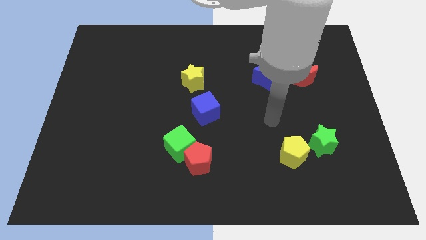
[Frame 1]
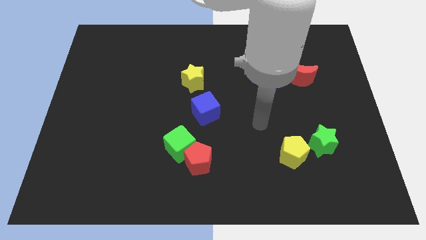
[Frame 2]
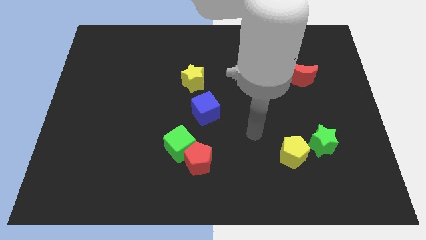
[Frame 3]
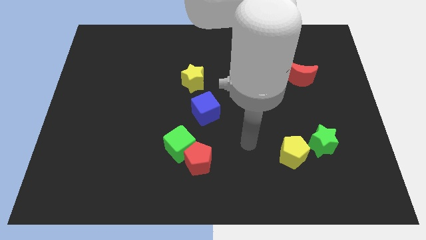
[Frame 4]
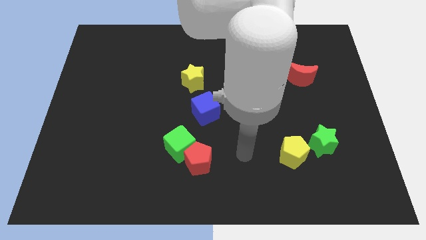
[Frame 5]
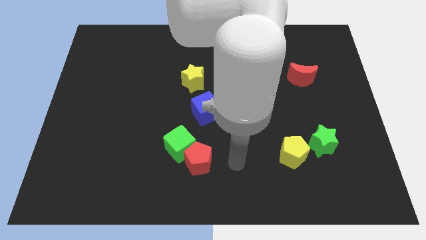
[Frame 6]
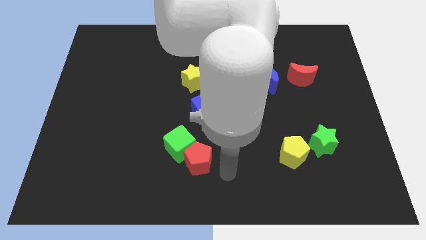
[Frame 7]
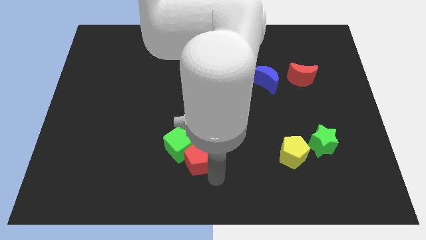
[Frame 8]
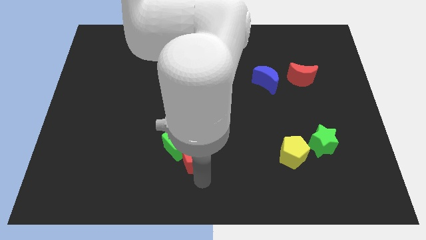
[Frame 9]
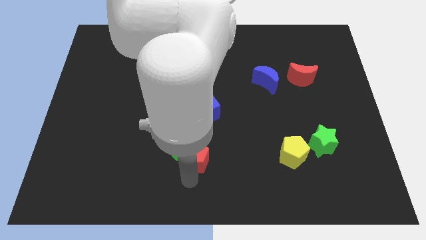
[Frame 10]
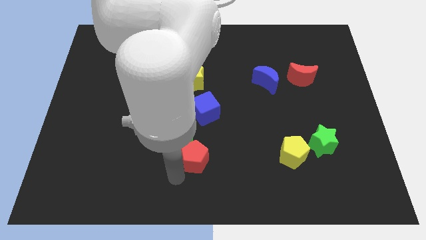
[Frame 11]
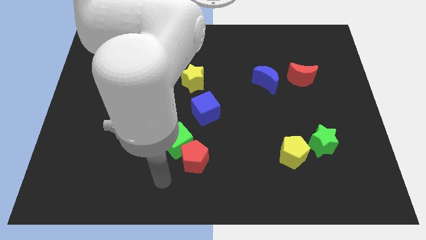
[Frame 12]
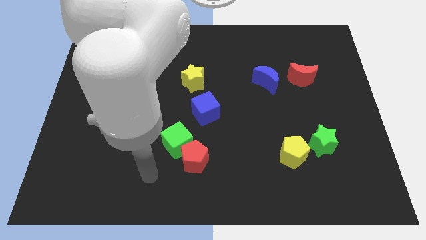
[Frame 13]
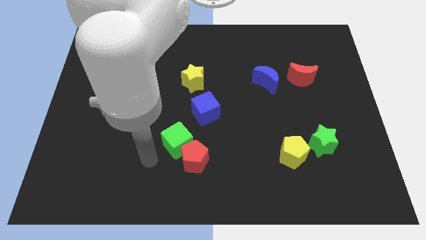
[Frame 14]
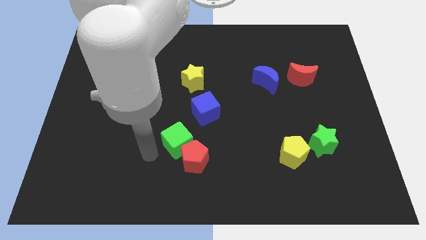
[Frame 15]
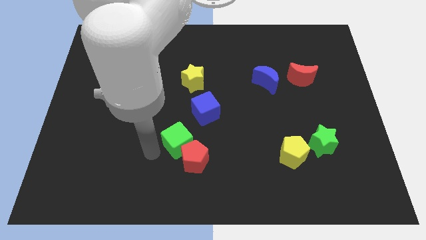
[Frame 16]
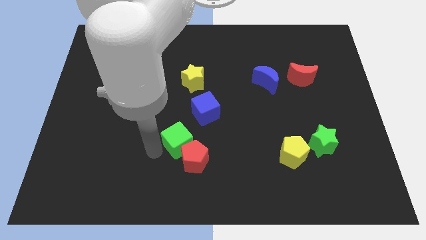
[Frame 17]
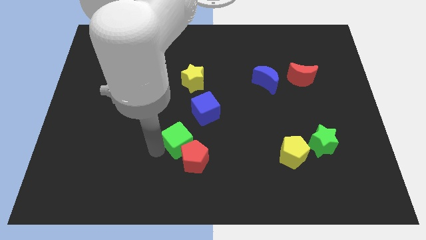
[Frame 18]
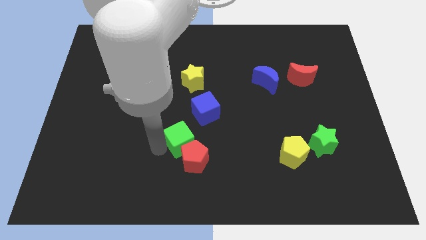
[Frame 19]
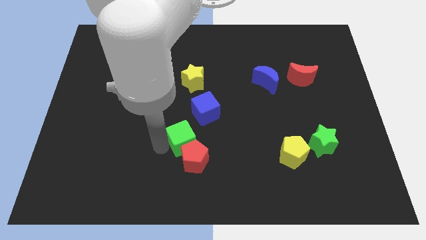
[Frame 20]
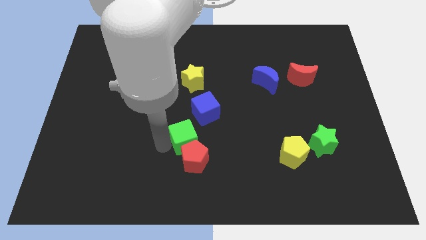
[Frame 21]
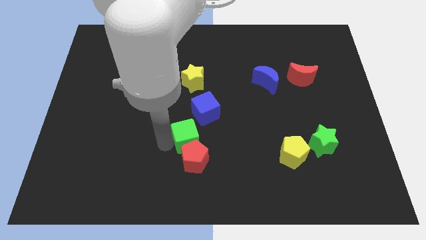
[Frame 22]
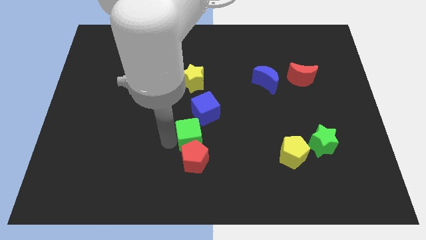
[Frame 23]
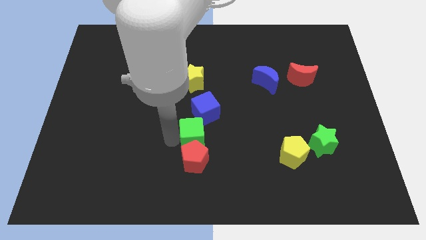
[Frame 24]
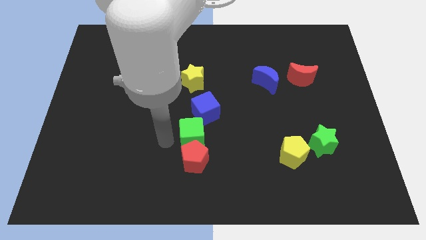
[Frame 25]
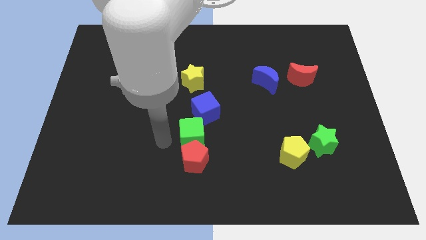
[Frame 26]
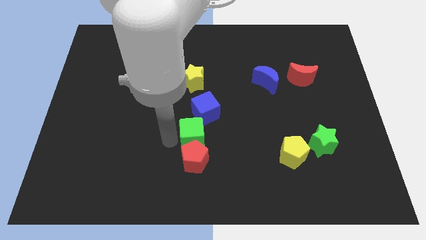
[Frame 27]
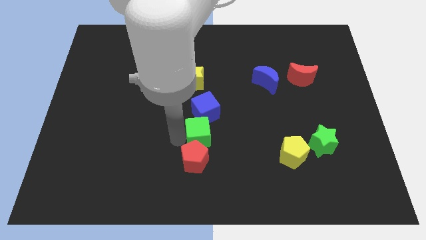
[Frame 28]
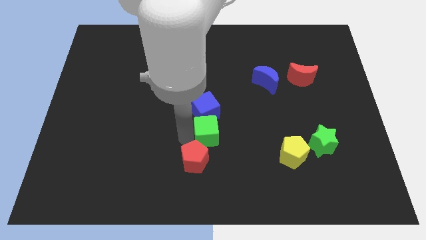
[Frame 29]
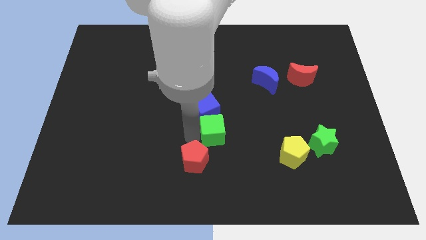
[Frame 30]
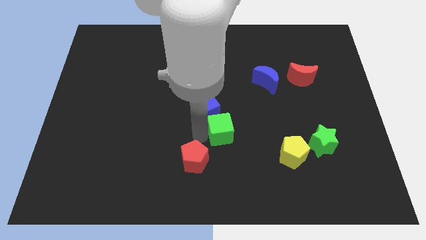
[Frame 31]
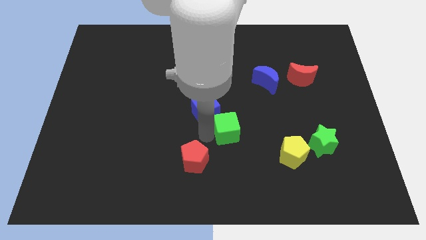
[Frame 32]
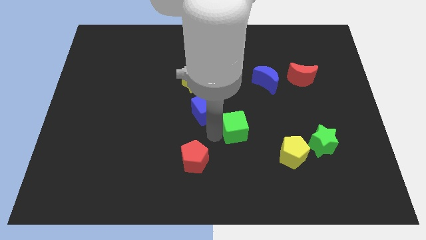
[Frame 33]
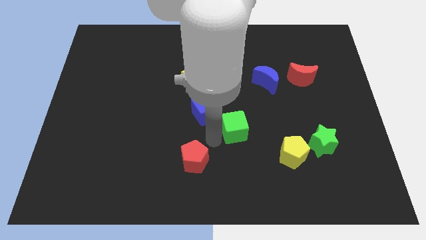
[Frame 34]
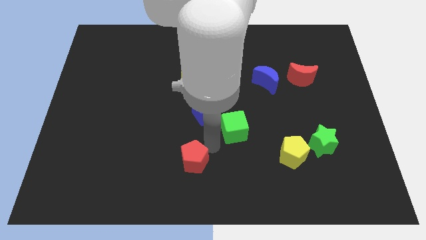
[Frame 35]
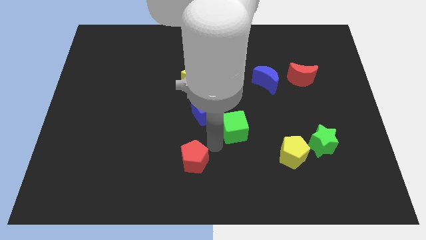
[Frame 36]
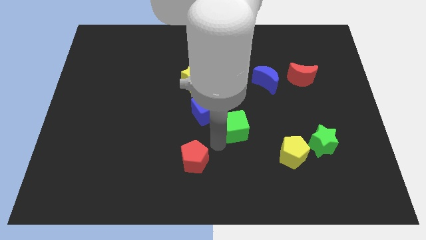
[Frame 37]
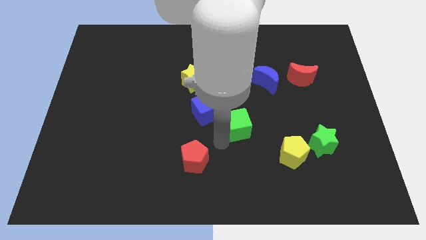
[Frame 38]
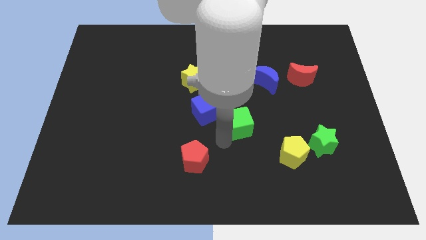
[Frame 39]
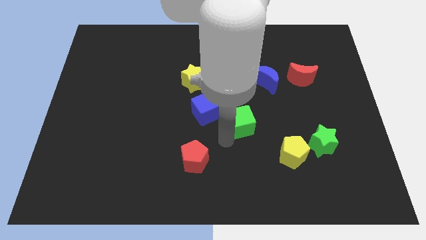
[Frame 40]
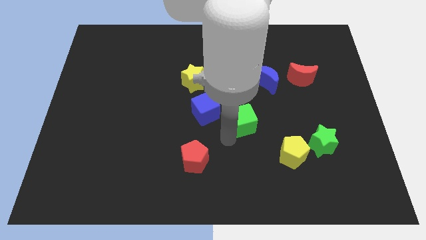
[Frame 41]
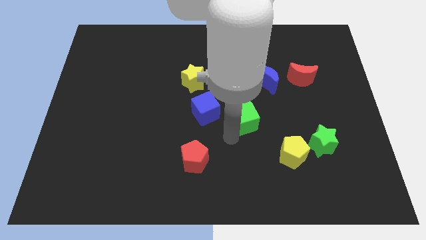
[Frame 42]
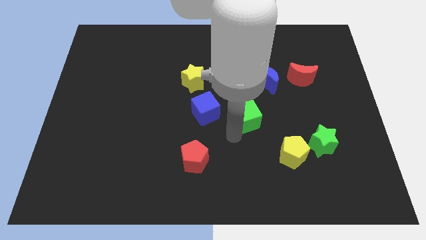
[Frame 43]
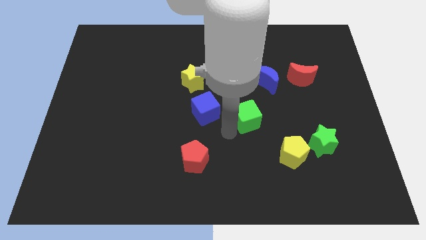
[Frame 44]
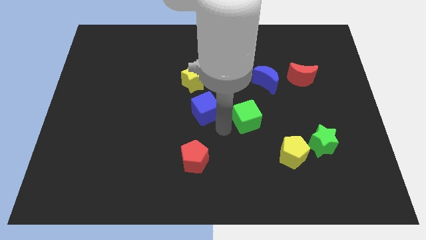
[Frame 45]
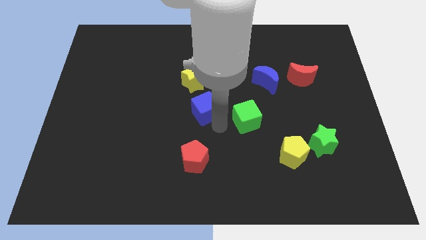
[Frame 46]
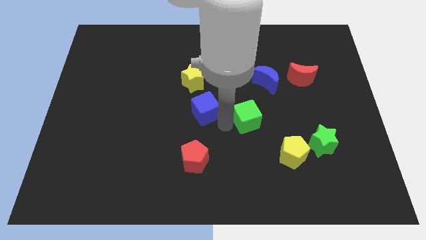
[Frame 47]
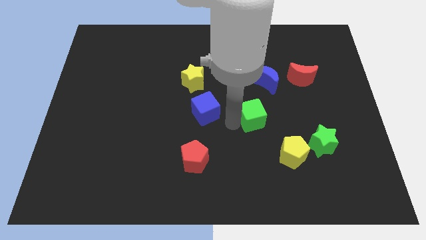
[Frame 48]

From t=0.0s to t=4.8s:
push the green cube below the blue moon

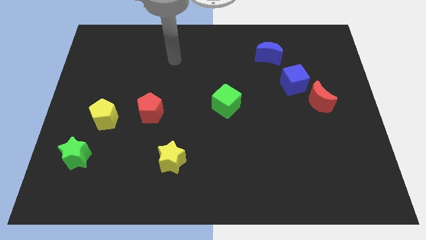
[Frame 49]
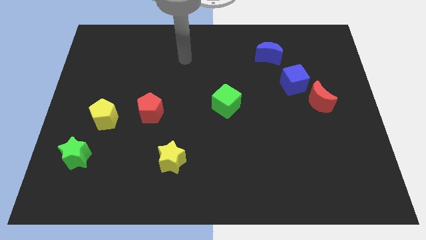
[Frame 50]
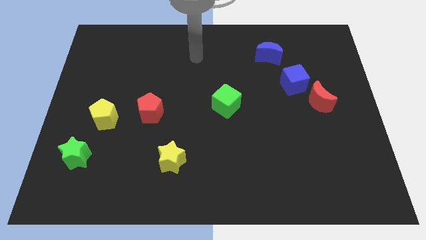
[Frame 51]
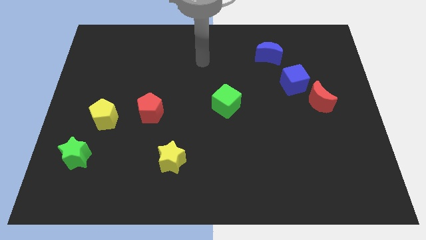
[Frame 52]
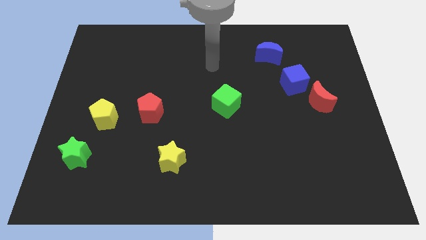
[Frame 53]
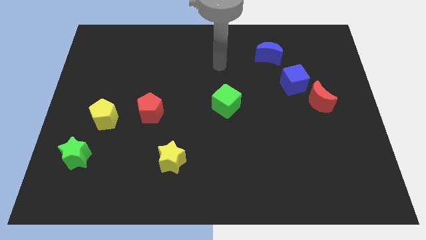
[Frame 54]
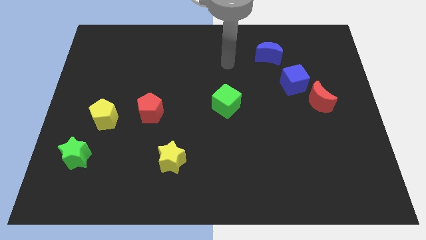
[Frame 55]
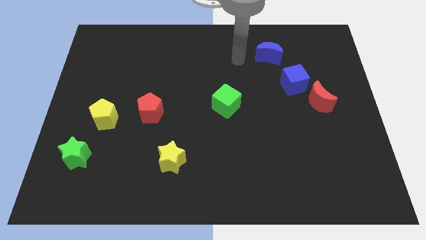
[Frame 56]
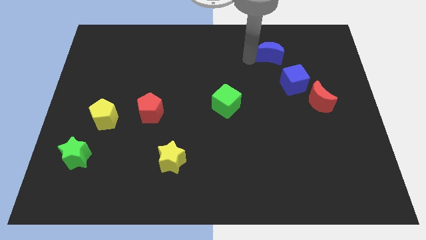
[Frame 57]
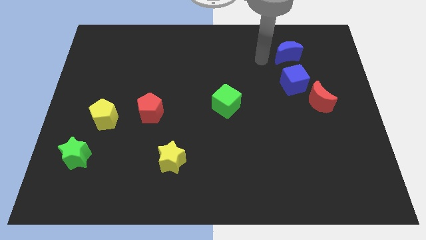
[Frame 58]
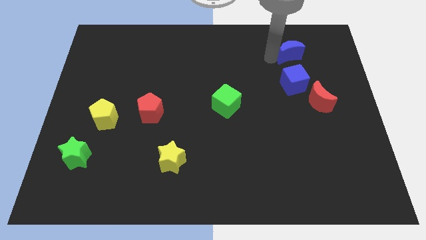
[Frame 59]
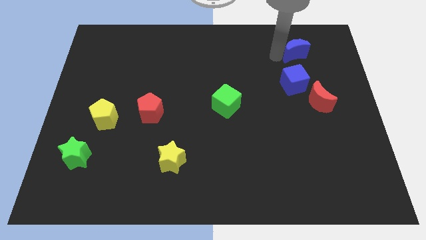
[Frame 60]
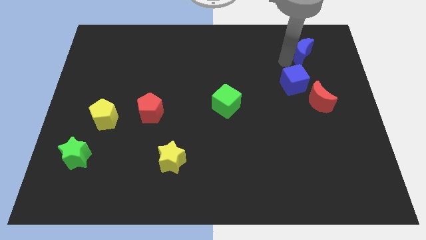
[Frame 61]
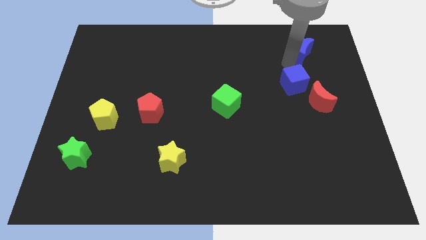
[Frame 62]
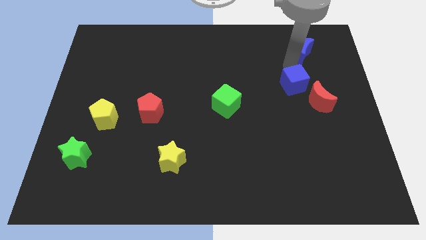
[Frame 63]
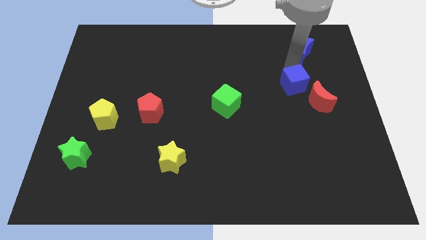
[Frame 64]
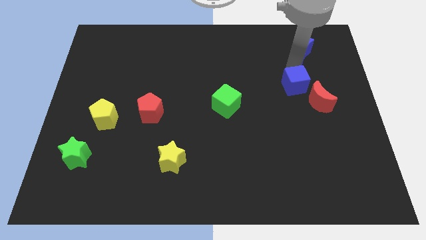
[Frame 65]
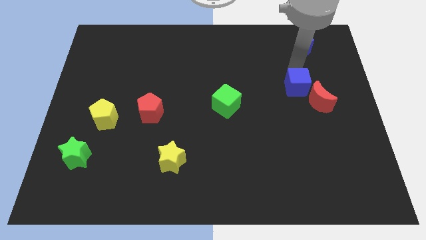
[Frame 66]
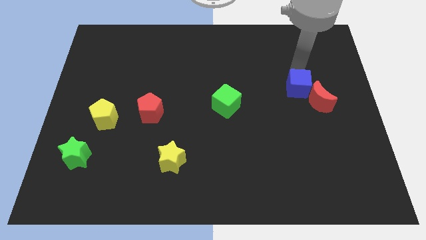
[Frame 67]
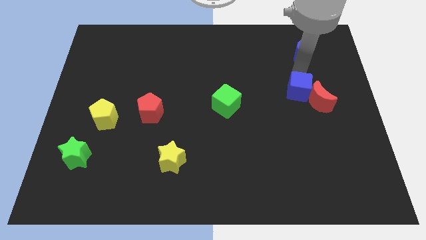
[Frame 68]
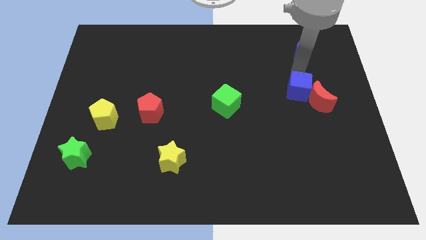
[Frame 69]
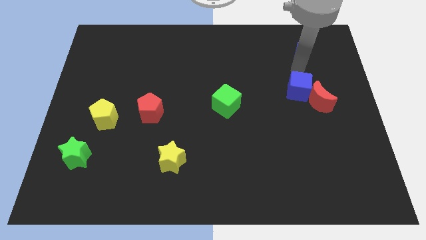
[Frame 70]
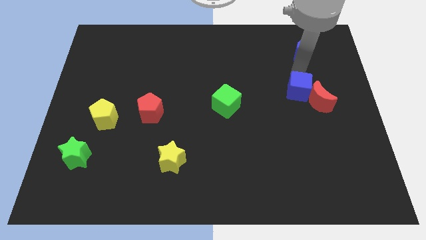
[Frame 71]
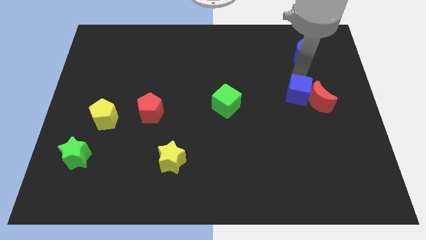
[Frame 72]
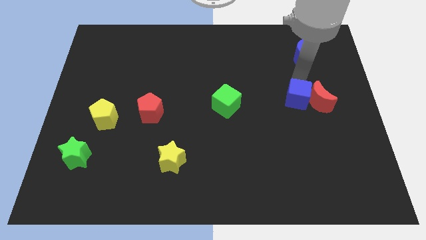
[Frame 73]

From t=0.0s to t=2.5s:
slide the blue cube to the bottom left side of the red moon
